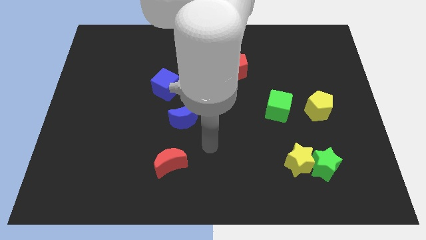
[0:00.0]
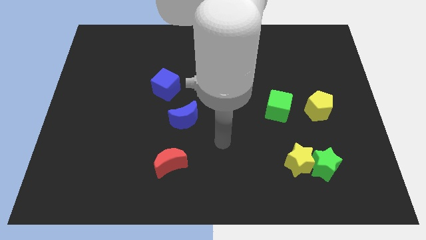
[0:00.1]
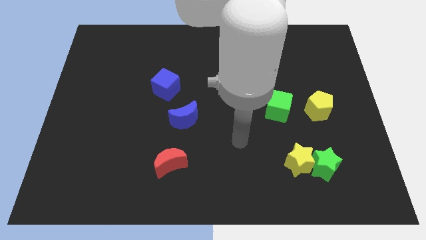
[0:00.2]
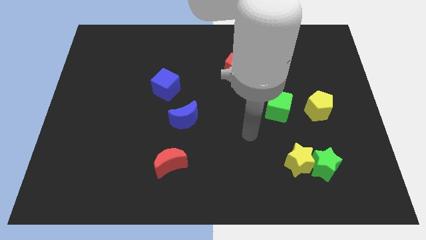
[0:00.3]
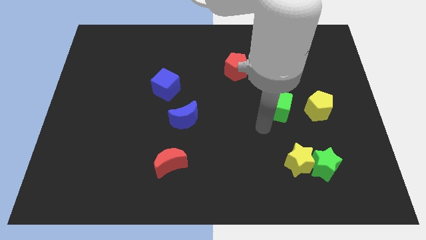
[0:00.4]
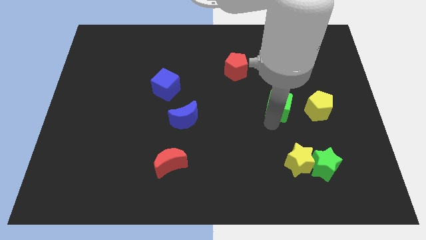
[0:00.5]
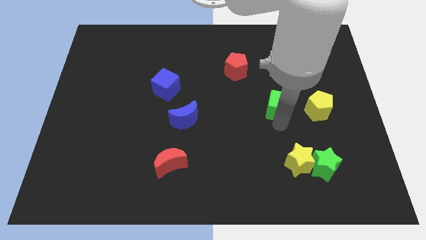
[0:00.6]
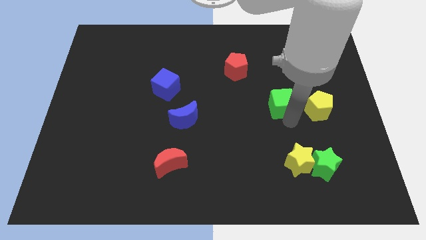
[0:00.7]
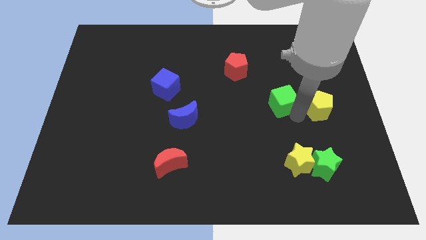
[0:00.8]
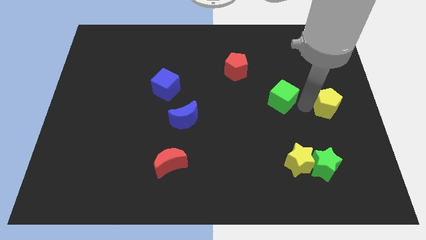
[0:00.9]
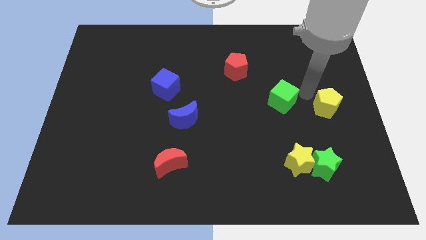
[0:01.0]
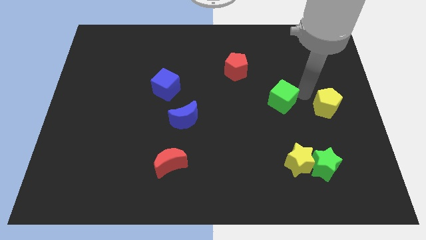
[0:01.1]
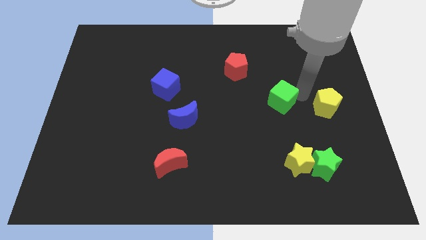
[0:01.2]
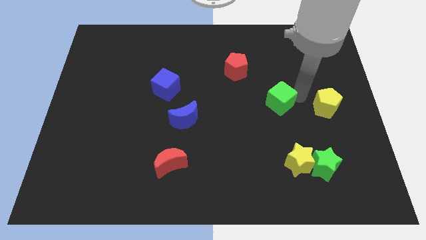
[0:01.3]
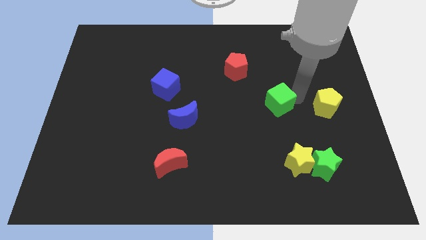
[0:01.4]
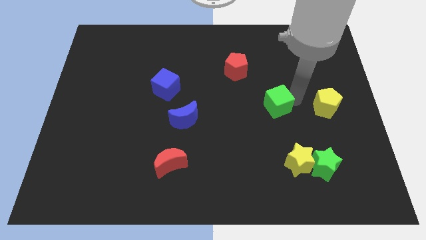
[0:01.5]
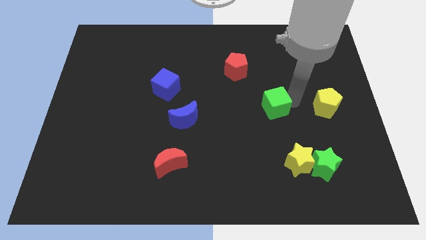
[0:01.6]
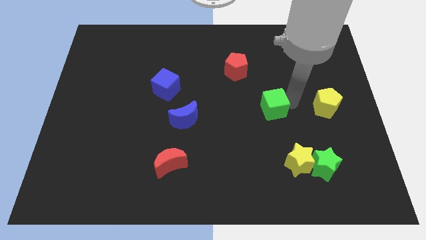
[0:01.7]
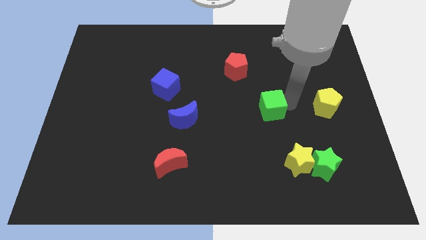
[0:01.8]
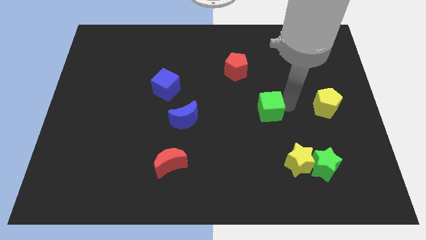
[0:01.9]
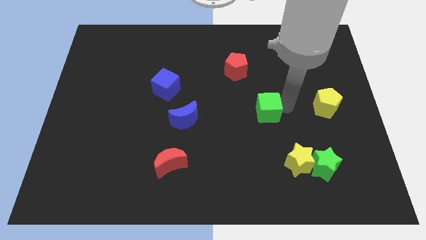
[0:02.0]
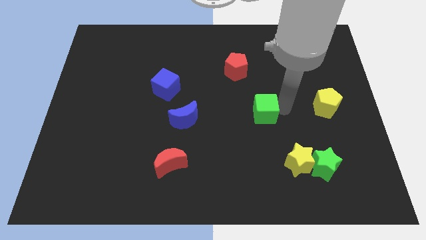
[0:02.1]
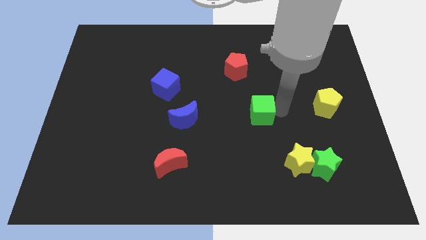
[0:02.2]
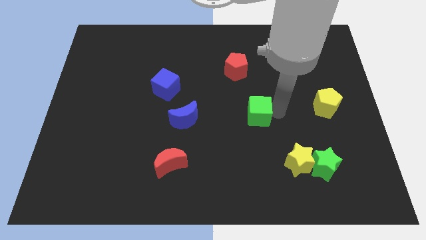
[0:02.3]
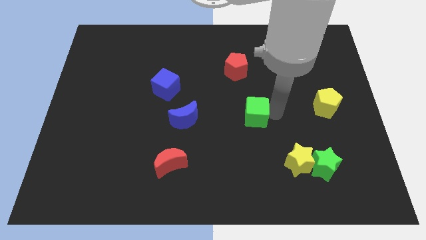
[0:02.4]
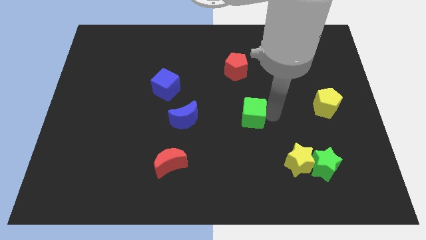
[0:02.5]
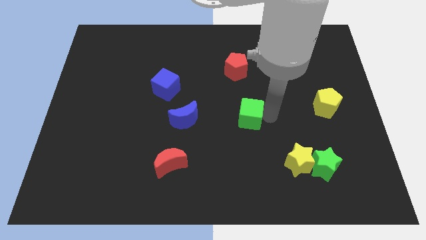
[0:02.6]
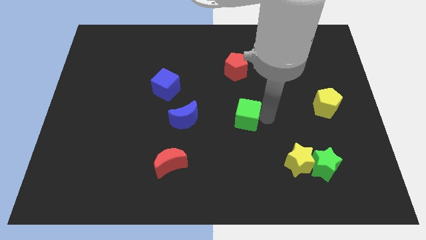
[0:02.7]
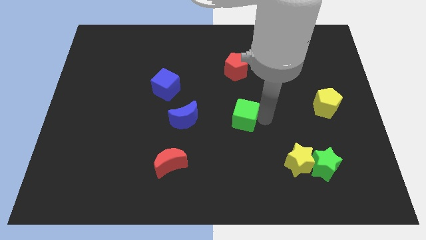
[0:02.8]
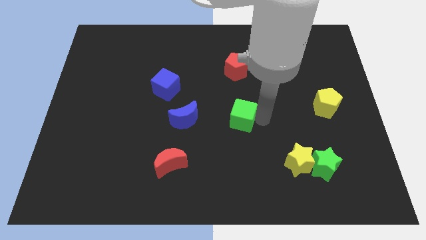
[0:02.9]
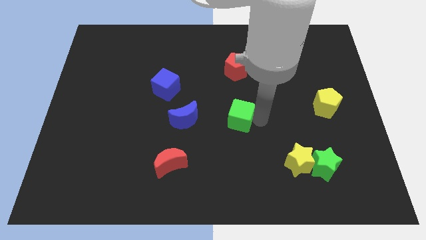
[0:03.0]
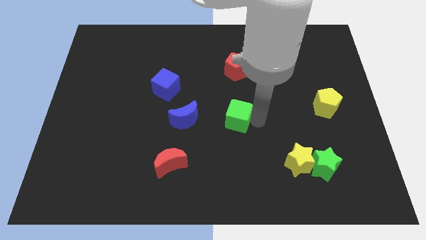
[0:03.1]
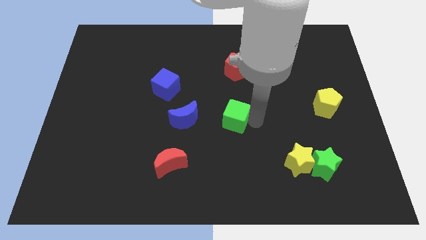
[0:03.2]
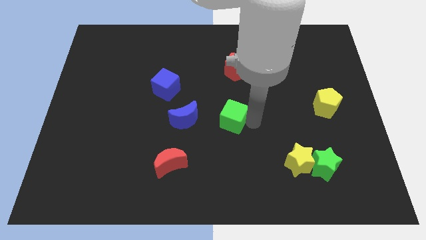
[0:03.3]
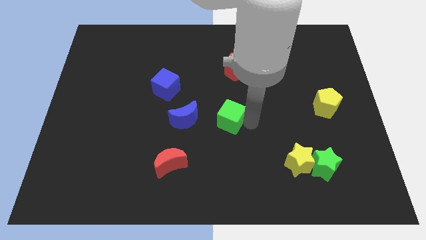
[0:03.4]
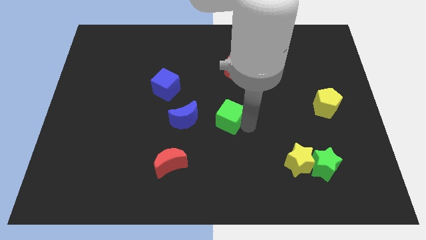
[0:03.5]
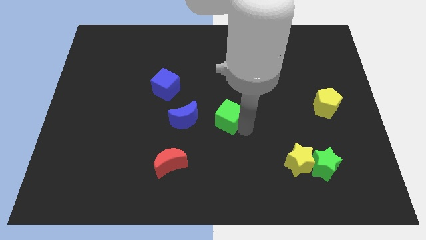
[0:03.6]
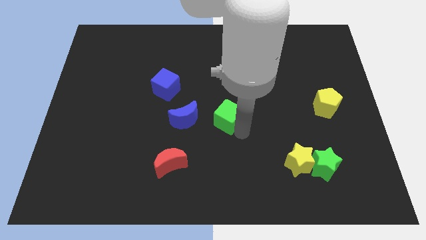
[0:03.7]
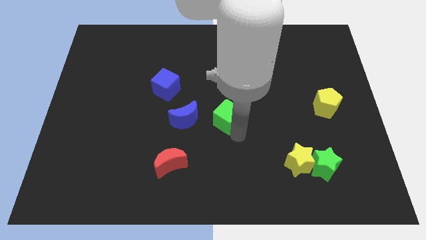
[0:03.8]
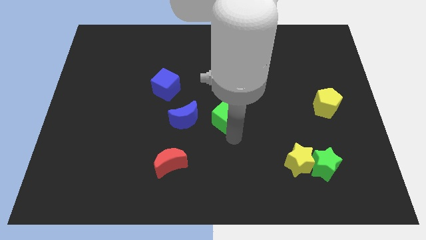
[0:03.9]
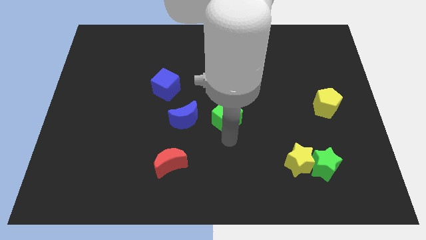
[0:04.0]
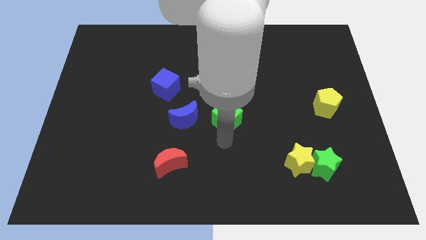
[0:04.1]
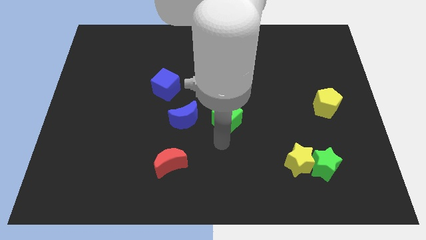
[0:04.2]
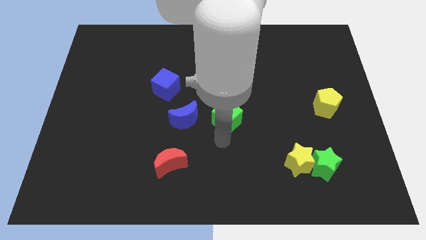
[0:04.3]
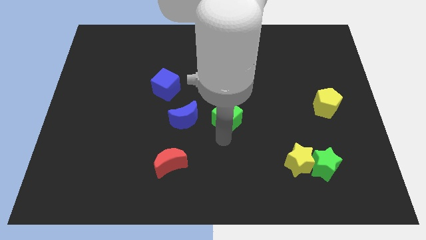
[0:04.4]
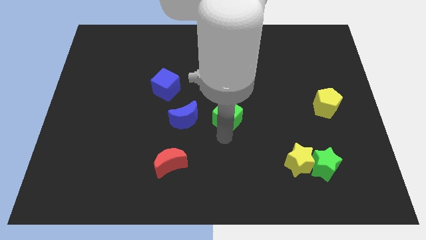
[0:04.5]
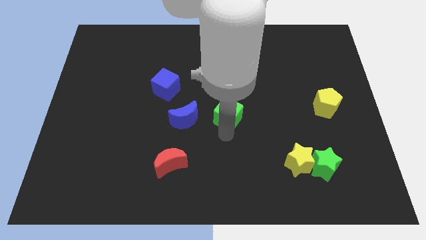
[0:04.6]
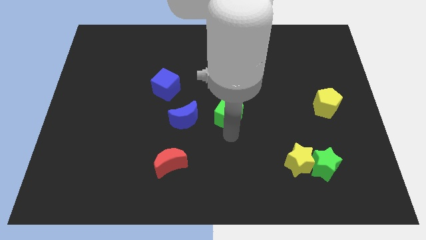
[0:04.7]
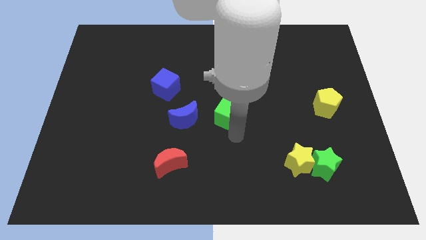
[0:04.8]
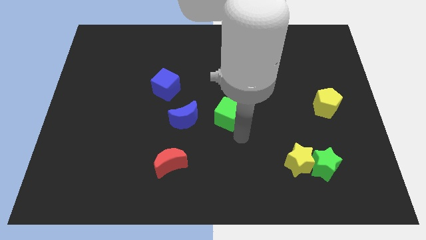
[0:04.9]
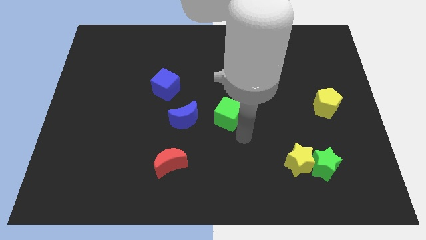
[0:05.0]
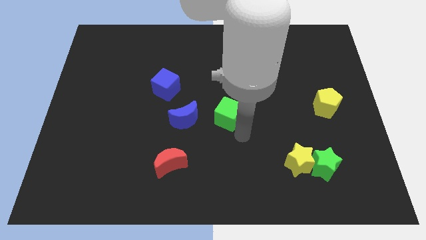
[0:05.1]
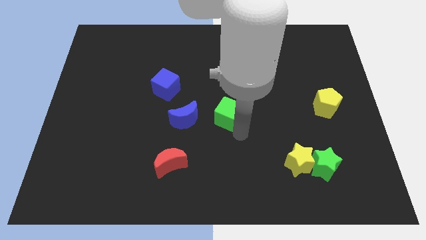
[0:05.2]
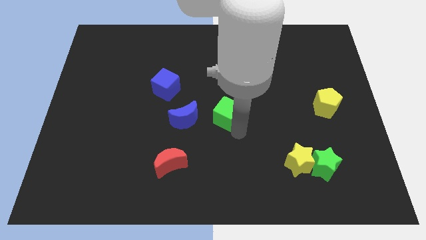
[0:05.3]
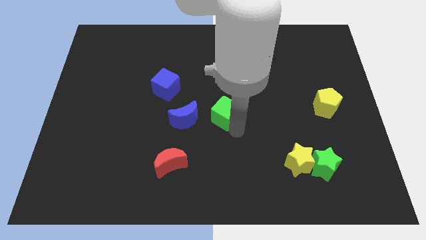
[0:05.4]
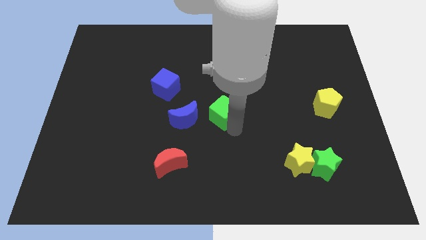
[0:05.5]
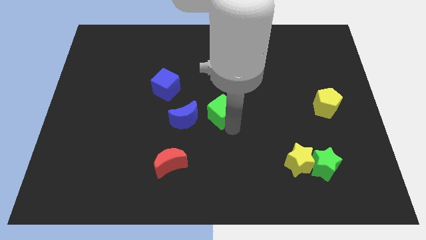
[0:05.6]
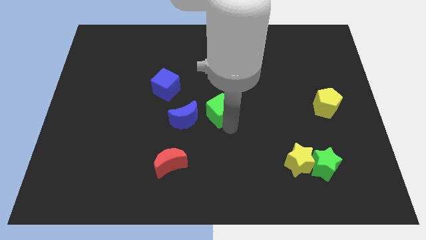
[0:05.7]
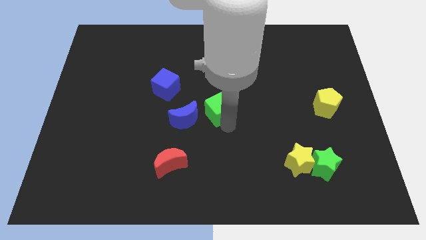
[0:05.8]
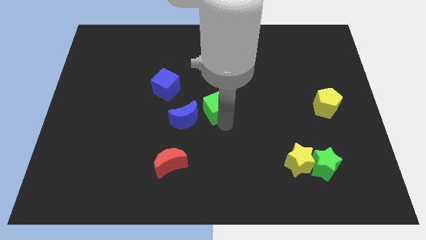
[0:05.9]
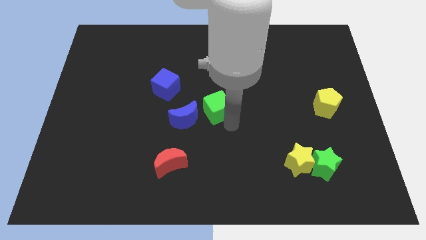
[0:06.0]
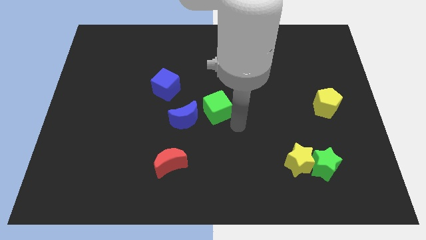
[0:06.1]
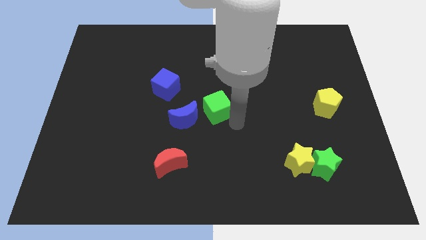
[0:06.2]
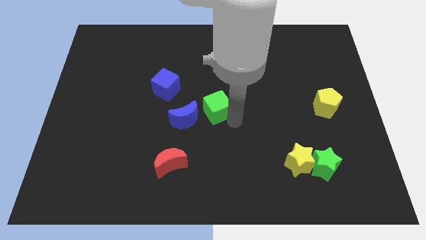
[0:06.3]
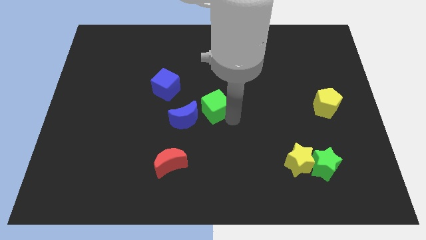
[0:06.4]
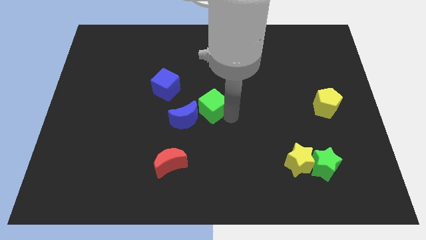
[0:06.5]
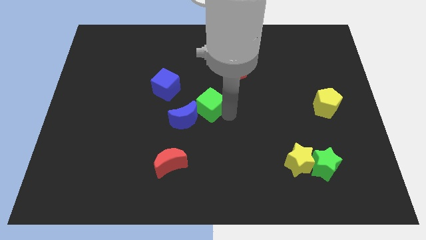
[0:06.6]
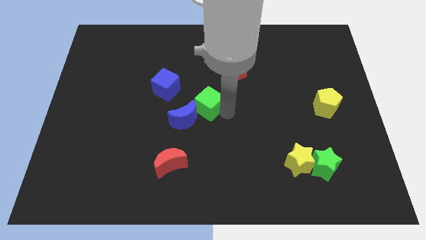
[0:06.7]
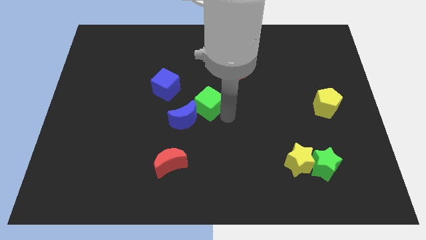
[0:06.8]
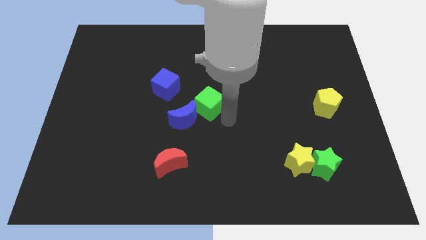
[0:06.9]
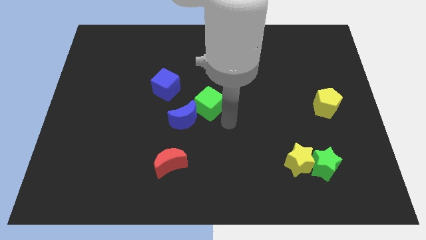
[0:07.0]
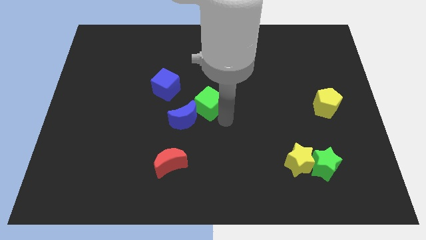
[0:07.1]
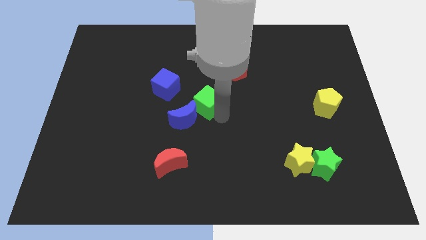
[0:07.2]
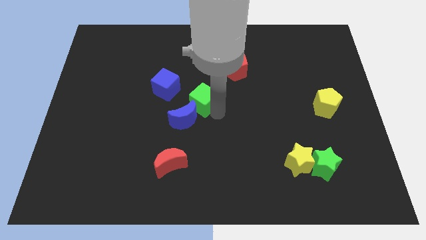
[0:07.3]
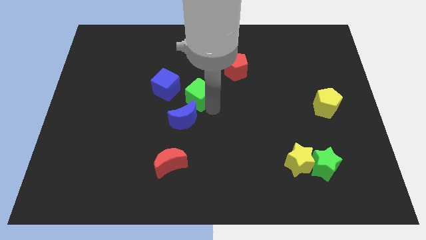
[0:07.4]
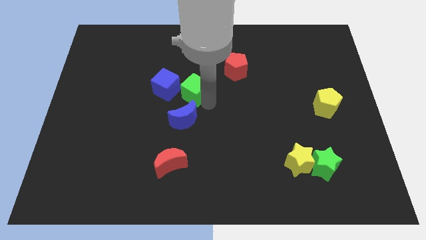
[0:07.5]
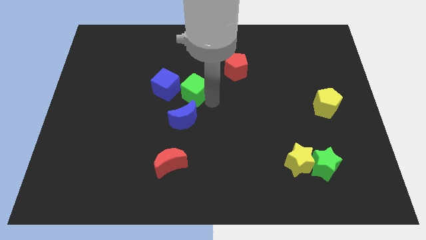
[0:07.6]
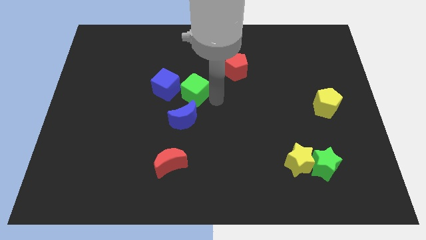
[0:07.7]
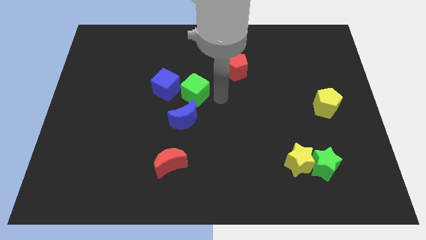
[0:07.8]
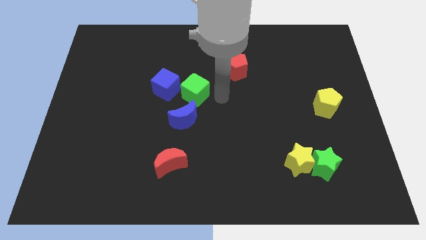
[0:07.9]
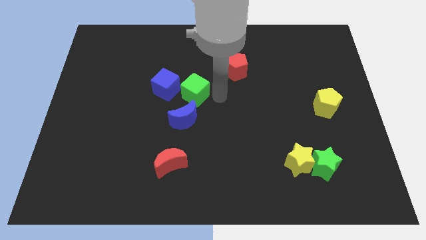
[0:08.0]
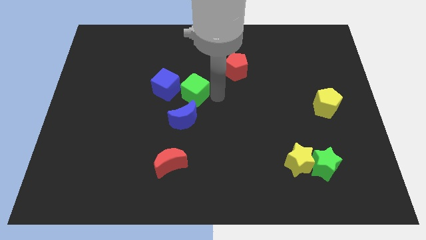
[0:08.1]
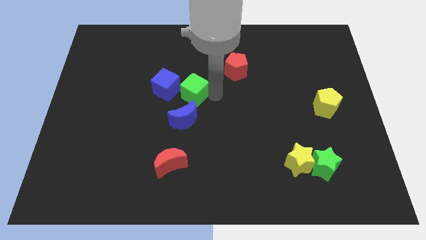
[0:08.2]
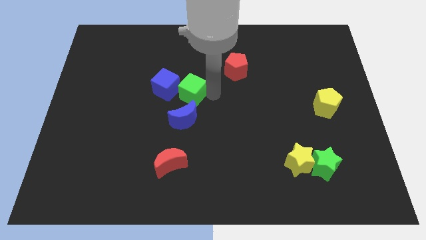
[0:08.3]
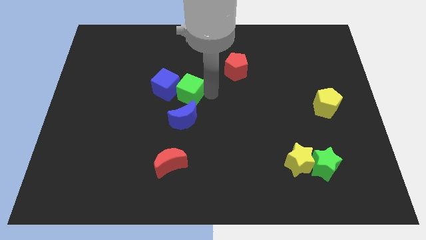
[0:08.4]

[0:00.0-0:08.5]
slide the green cube next to the blue cube
